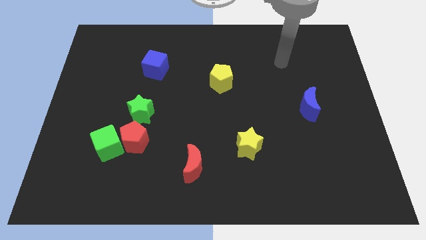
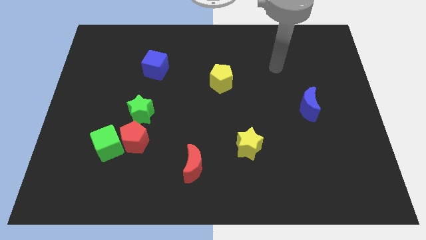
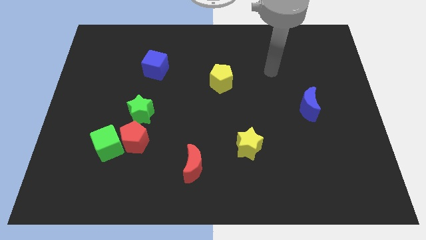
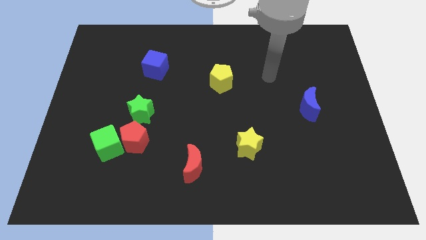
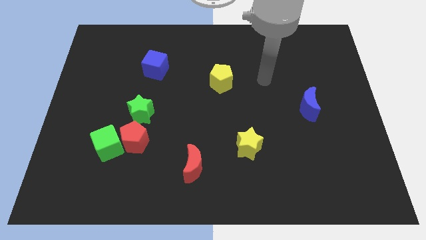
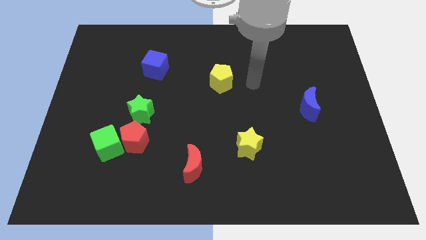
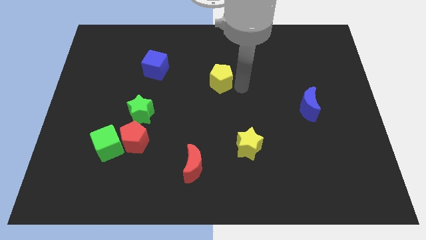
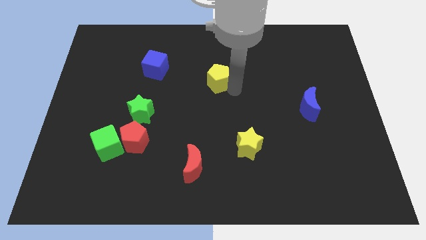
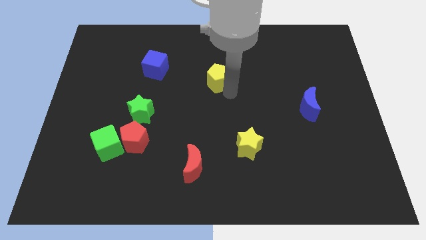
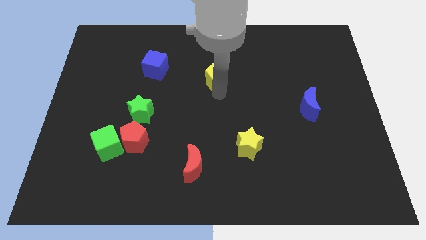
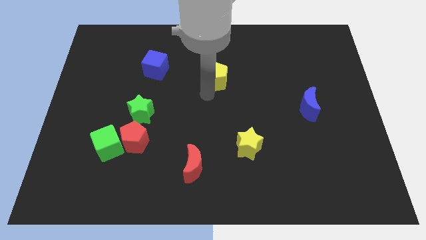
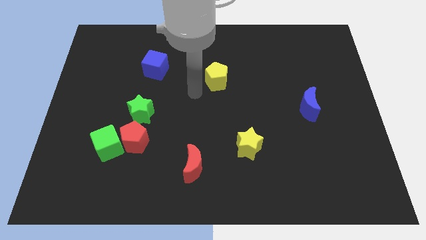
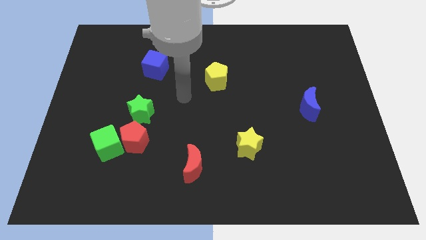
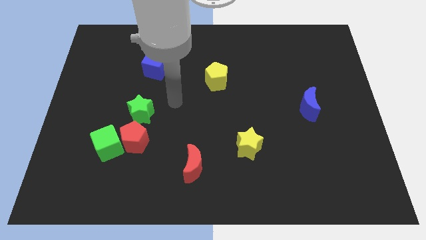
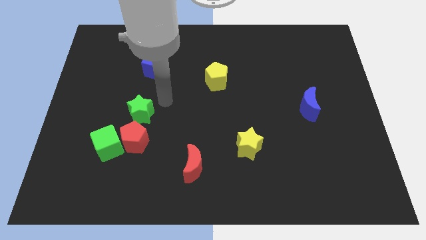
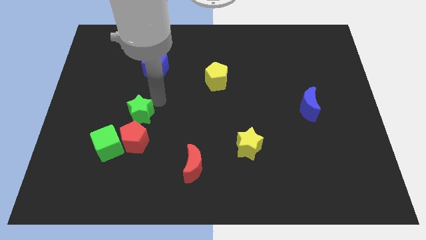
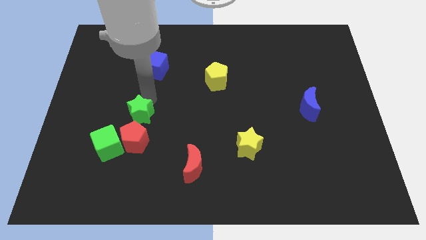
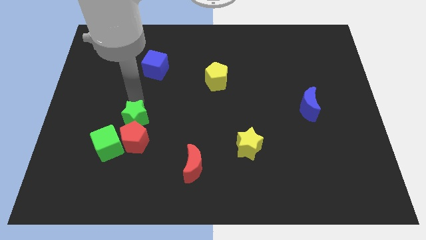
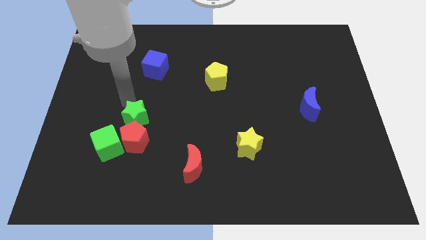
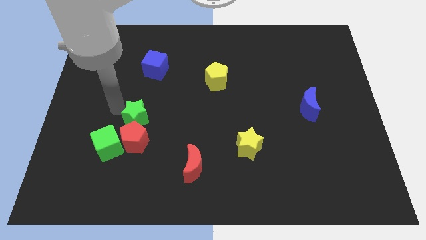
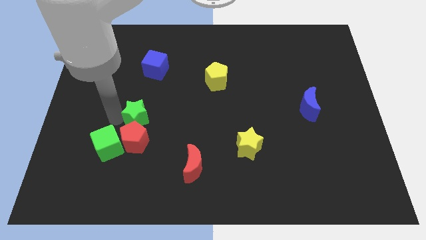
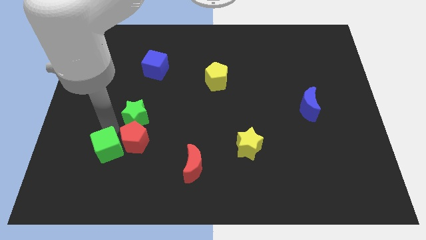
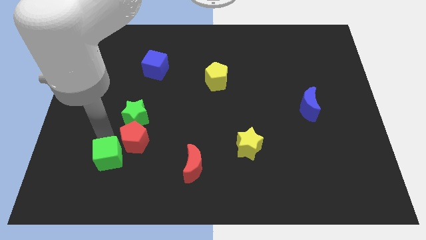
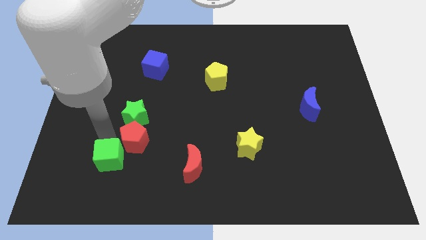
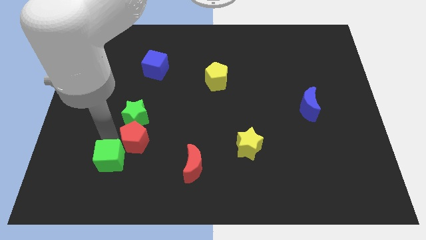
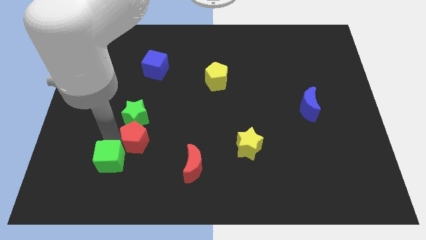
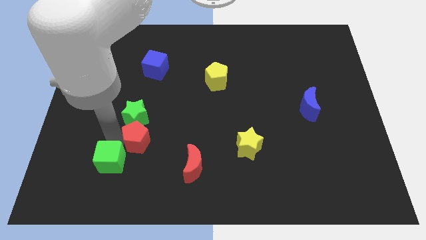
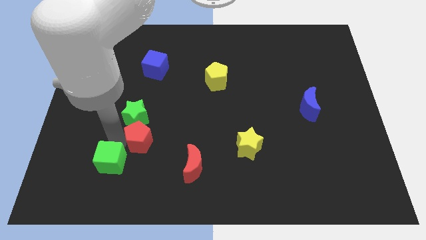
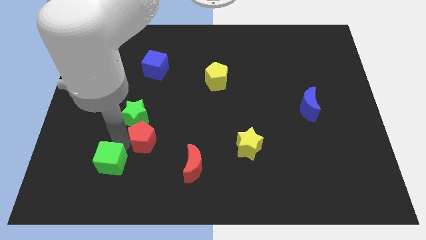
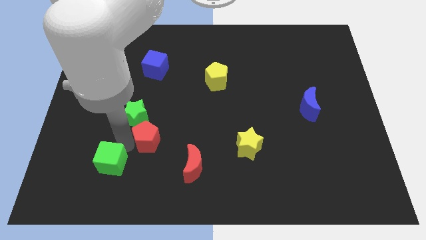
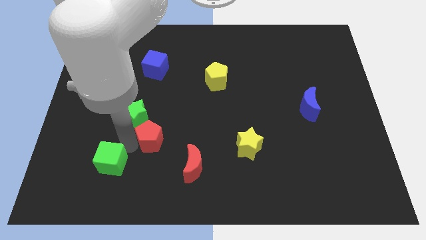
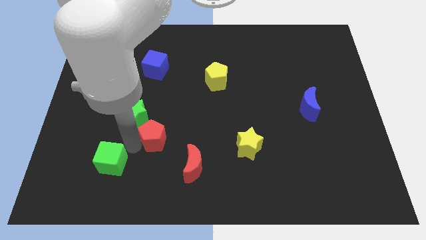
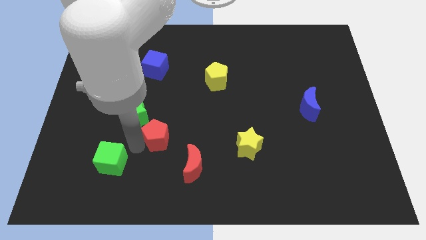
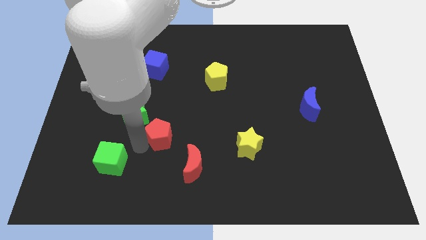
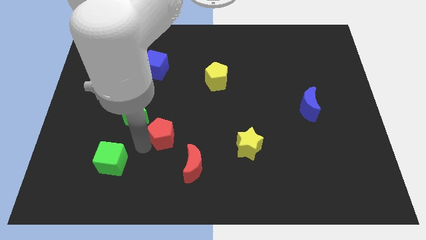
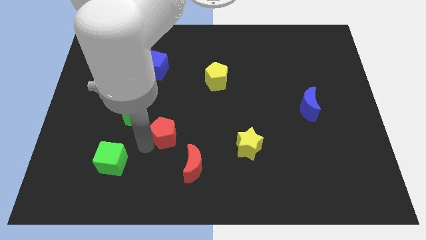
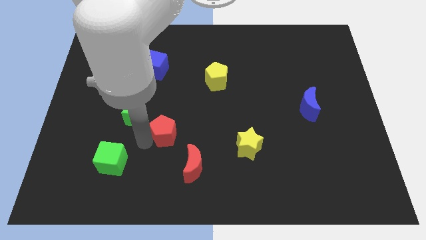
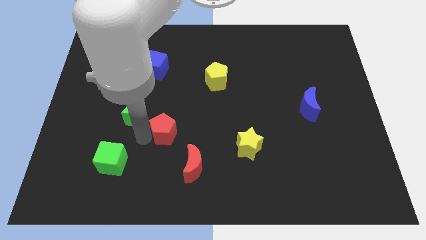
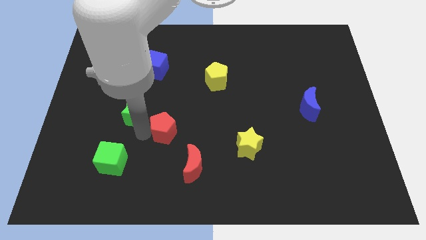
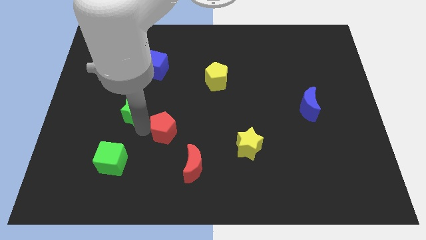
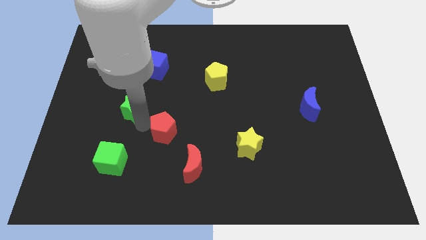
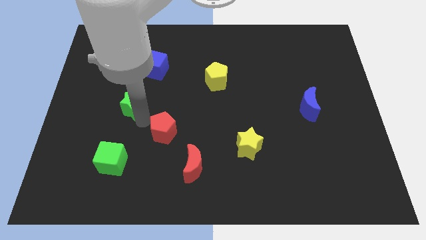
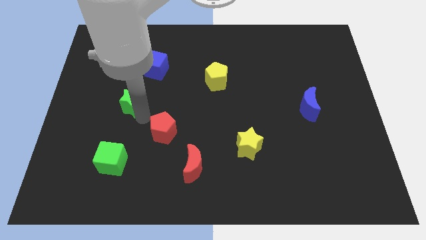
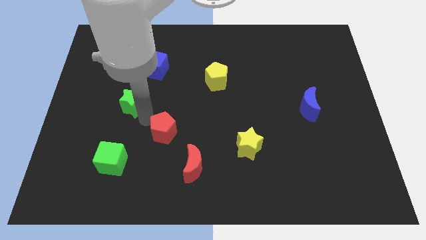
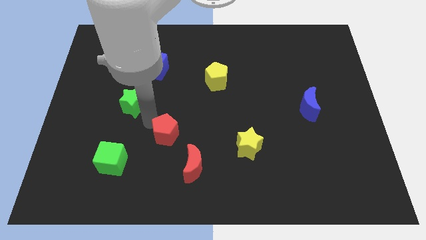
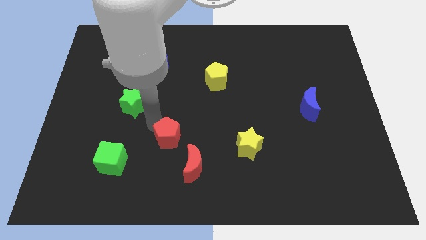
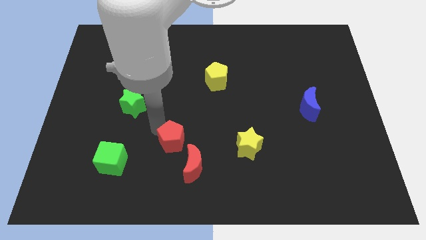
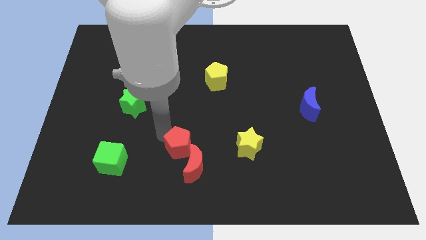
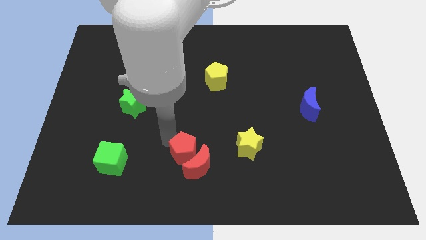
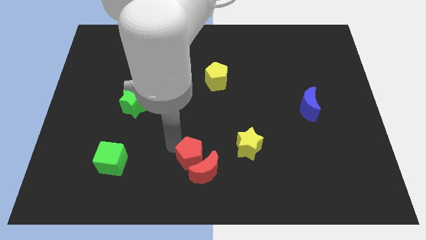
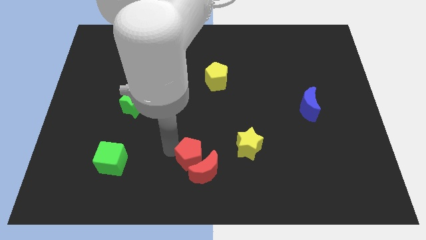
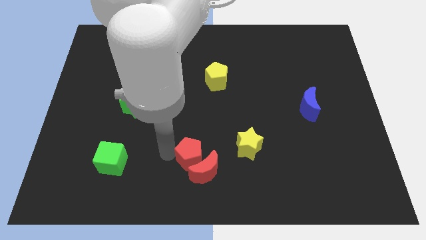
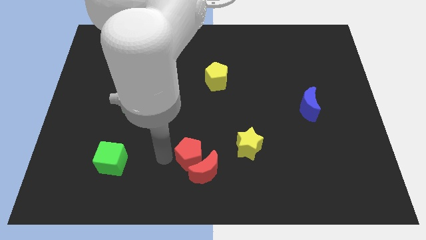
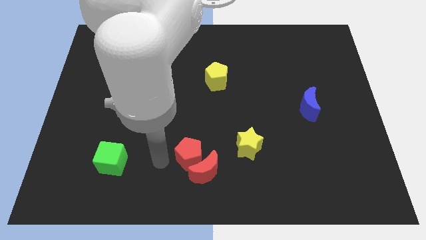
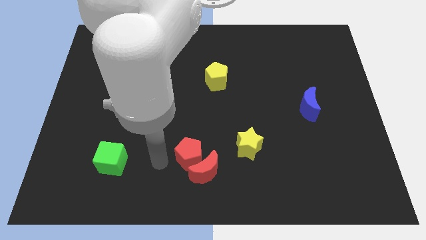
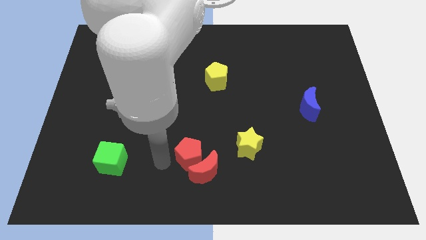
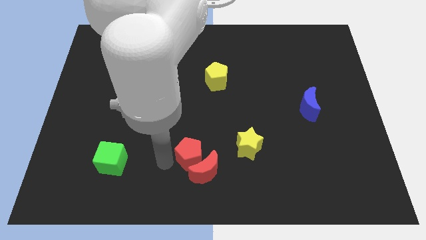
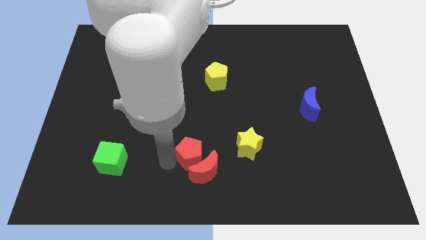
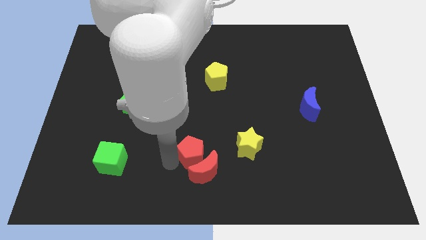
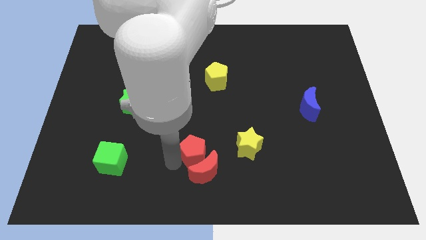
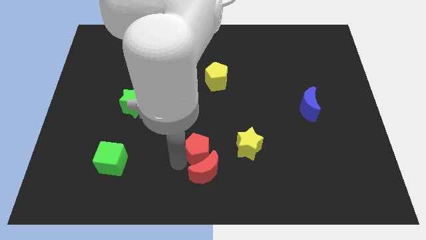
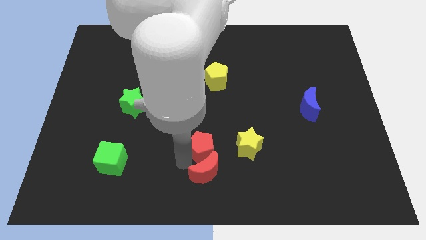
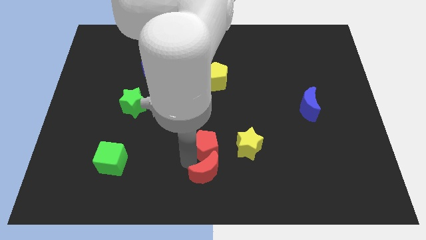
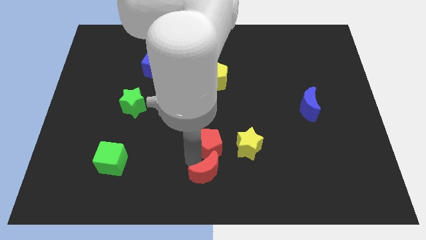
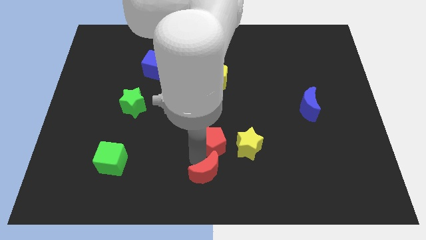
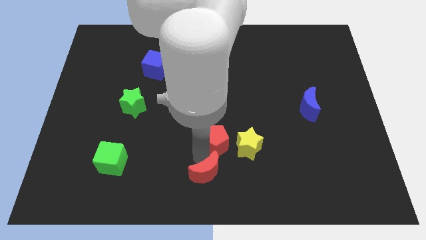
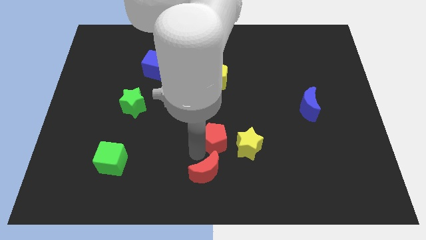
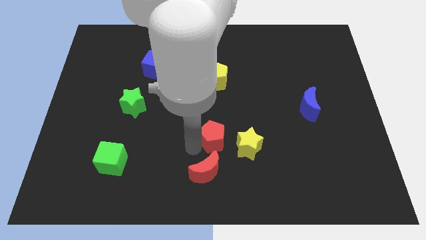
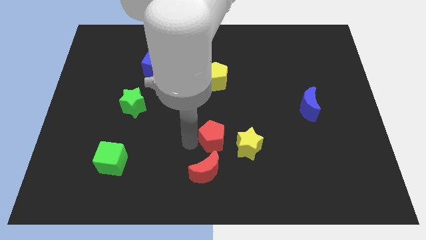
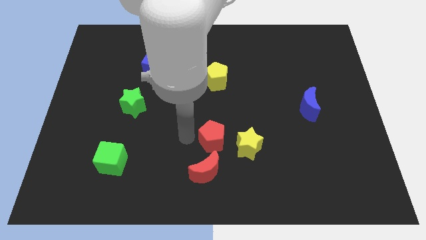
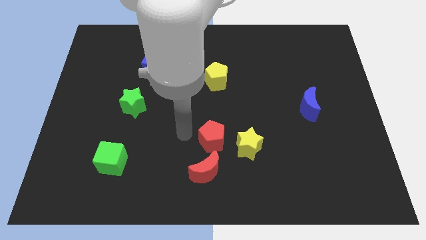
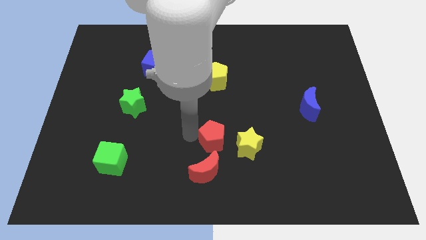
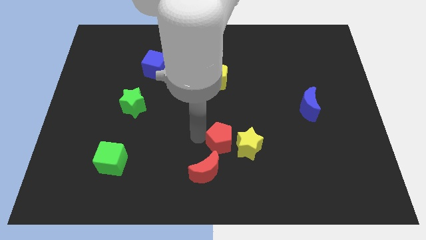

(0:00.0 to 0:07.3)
move the red pentagon next to the yellow star
